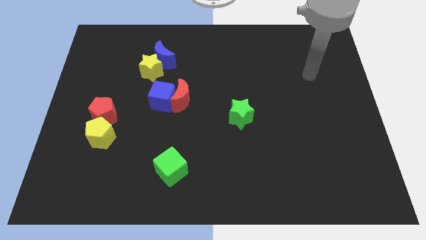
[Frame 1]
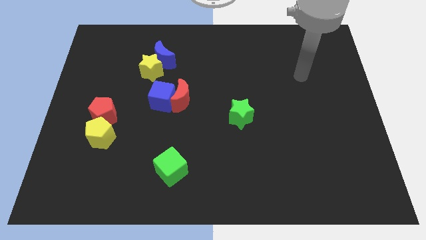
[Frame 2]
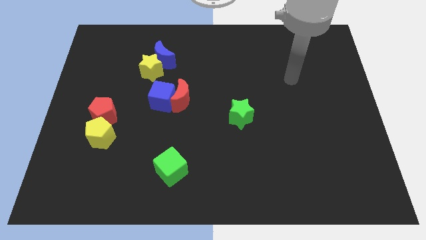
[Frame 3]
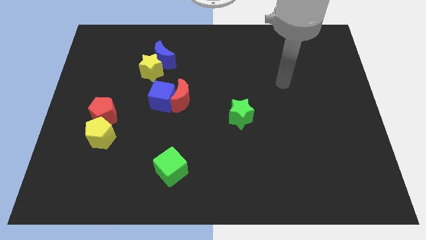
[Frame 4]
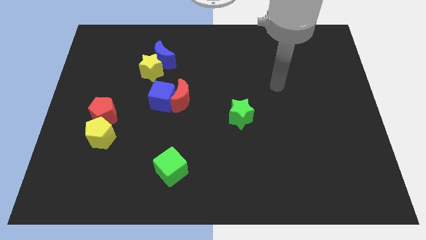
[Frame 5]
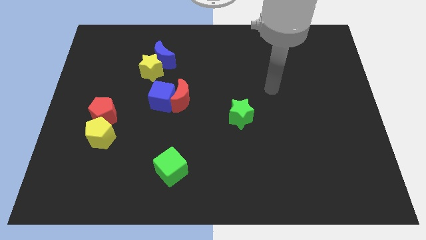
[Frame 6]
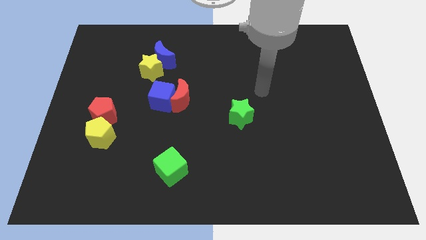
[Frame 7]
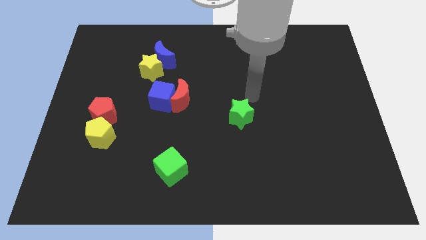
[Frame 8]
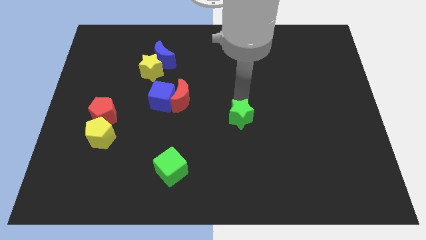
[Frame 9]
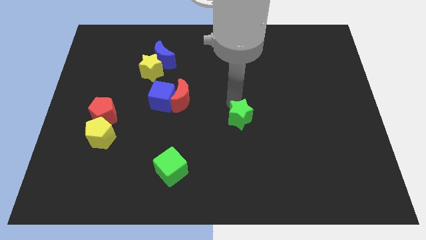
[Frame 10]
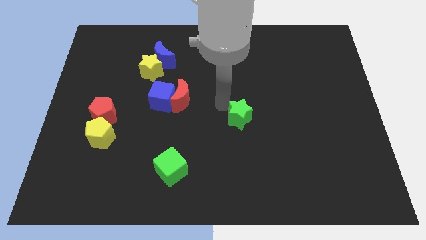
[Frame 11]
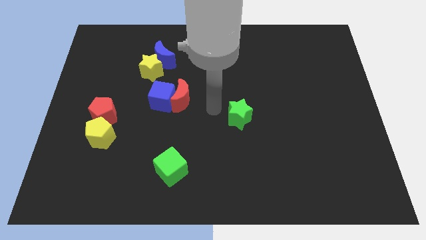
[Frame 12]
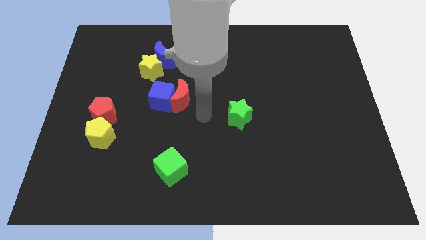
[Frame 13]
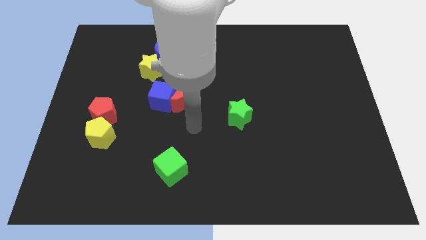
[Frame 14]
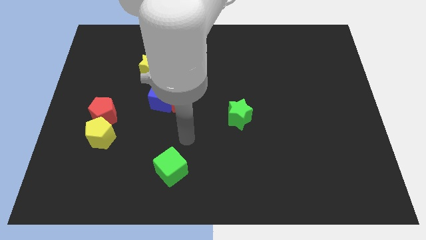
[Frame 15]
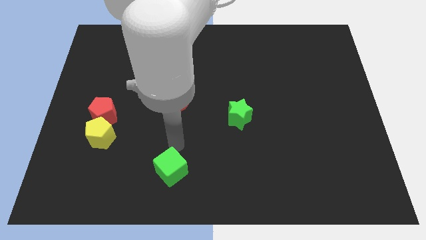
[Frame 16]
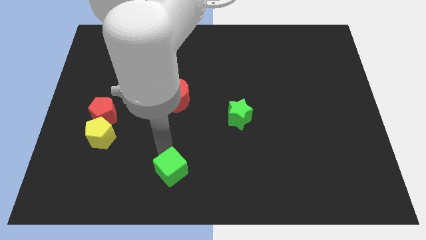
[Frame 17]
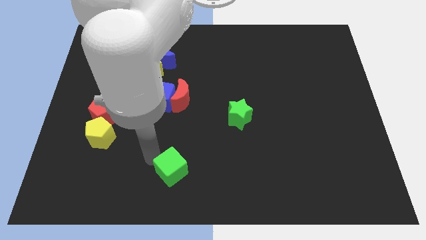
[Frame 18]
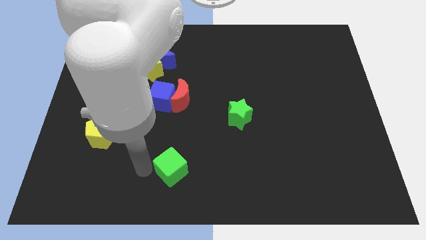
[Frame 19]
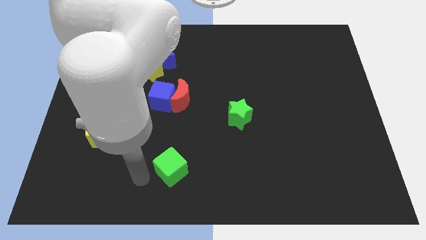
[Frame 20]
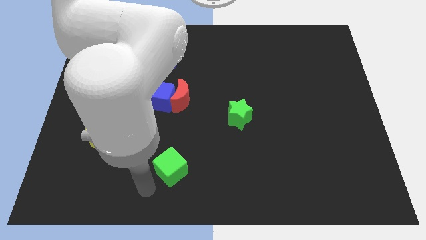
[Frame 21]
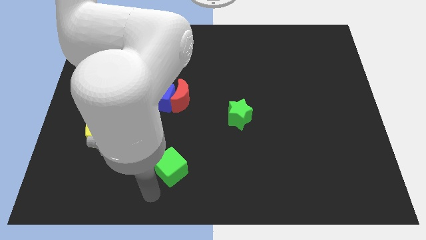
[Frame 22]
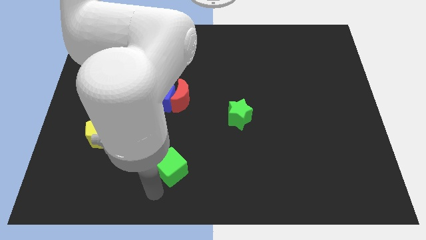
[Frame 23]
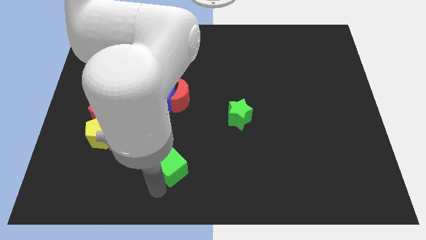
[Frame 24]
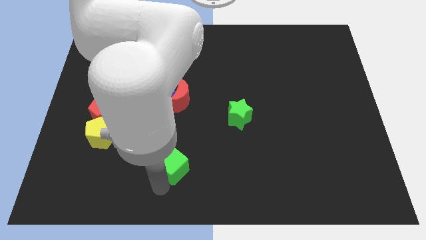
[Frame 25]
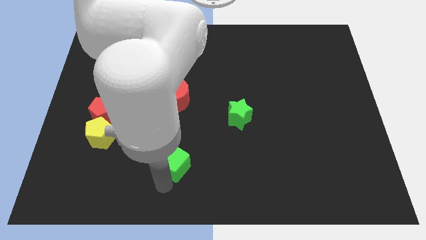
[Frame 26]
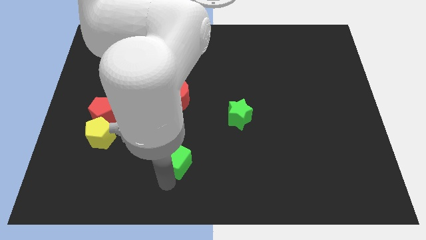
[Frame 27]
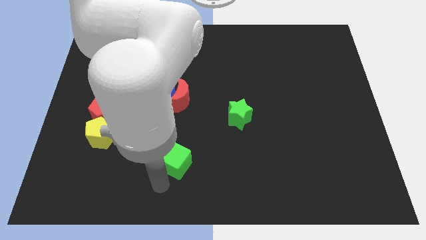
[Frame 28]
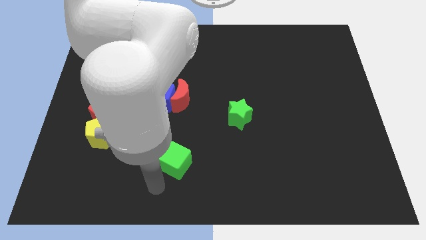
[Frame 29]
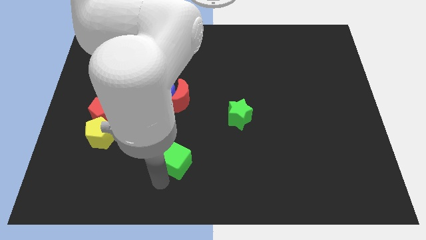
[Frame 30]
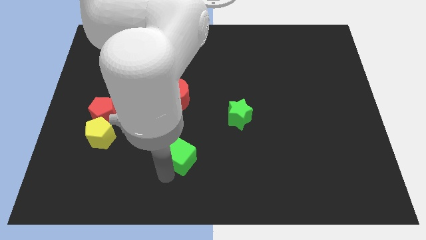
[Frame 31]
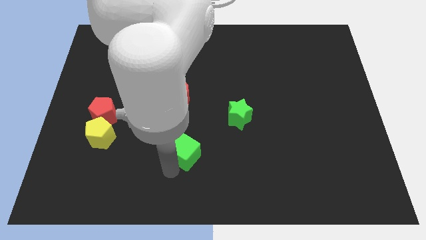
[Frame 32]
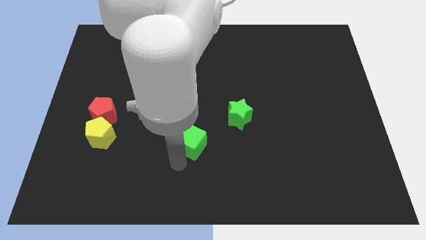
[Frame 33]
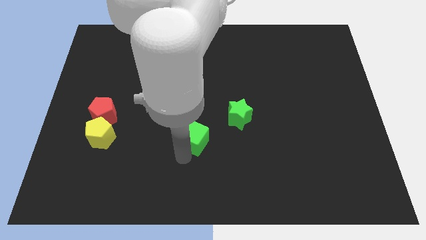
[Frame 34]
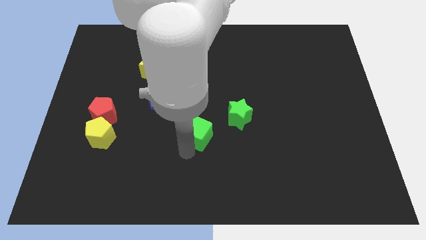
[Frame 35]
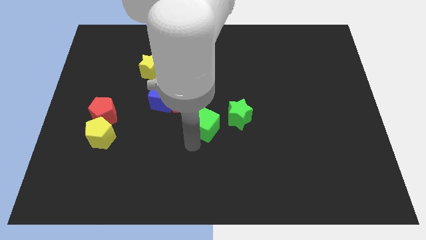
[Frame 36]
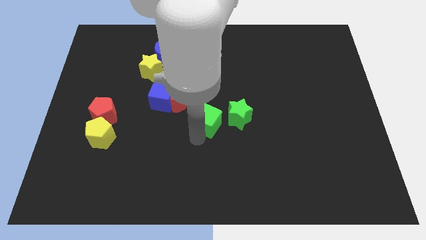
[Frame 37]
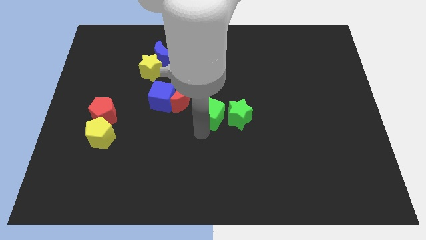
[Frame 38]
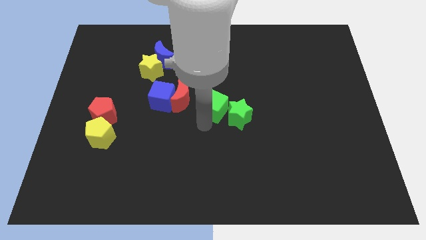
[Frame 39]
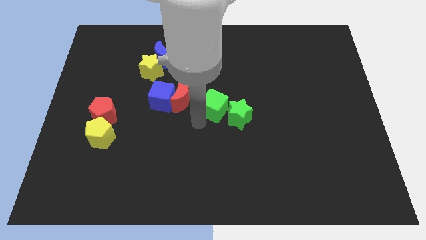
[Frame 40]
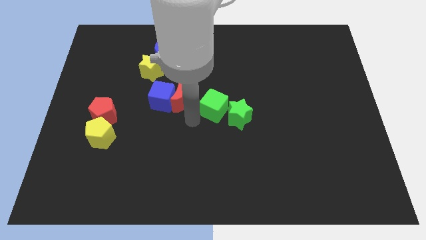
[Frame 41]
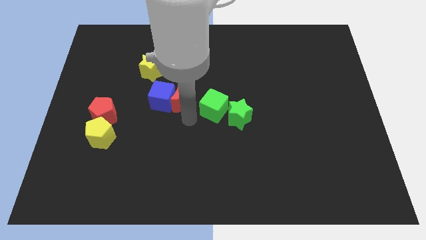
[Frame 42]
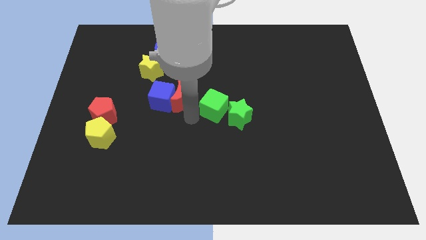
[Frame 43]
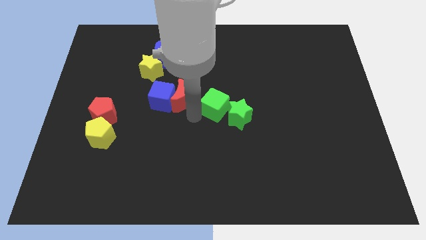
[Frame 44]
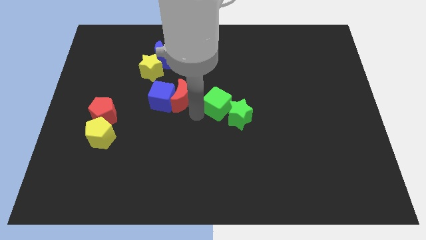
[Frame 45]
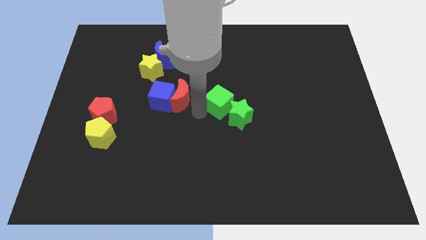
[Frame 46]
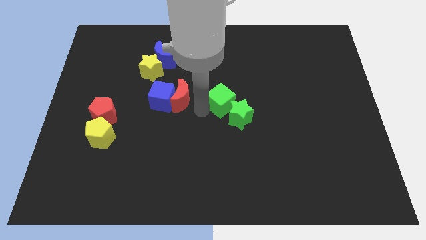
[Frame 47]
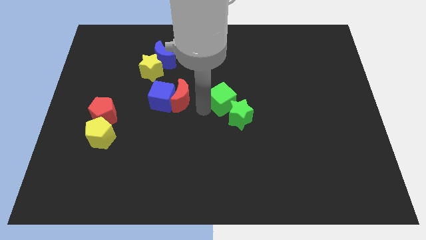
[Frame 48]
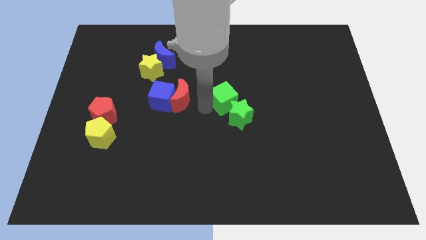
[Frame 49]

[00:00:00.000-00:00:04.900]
move the green cube up and right

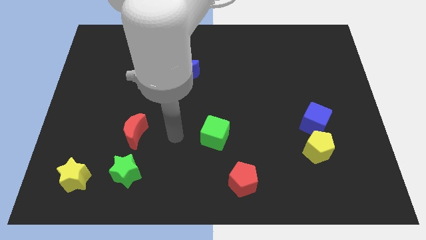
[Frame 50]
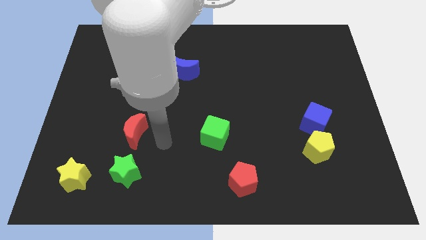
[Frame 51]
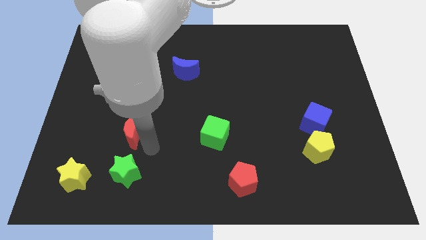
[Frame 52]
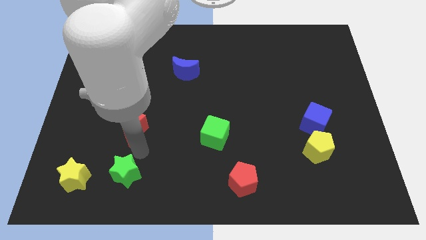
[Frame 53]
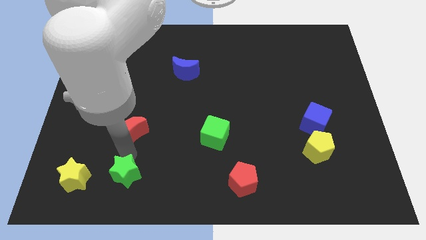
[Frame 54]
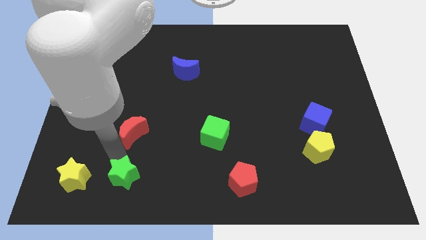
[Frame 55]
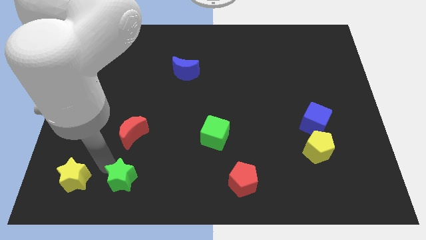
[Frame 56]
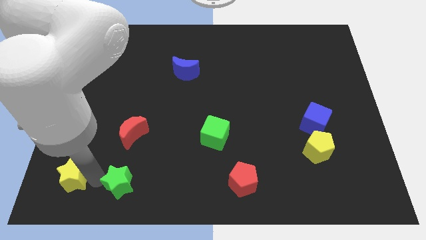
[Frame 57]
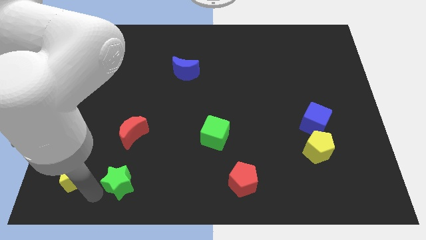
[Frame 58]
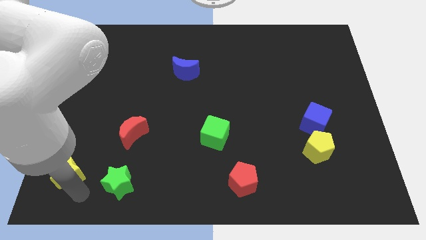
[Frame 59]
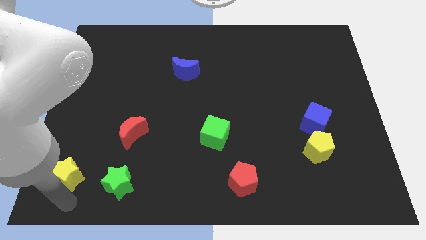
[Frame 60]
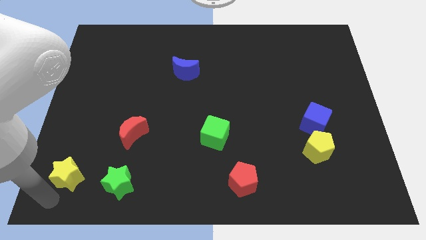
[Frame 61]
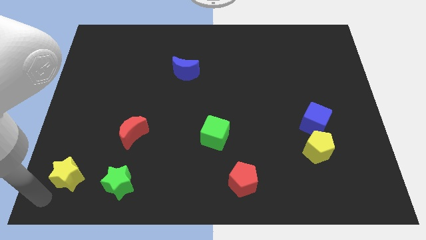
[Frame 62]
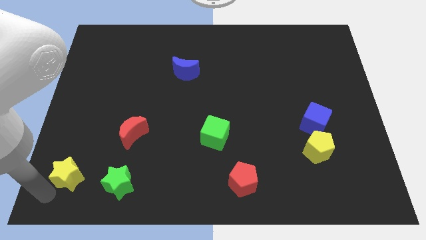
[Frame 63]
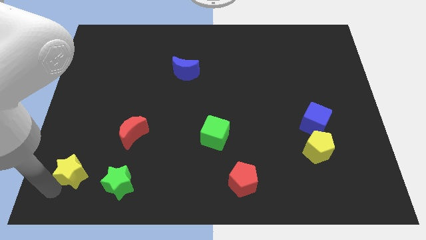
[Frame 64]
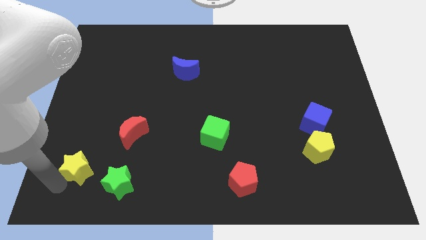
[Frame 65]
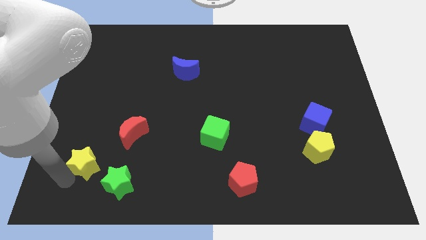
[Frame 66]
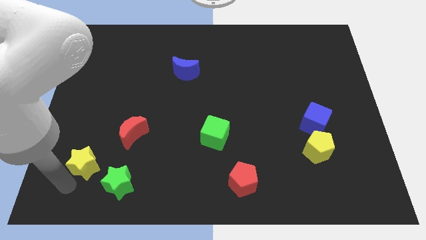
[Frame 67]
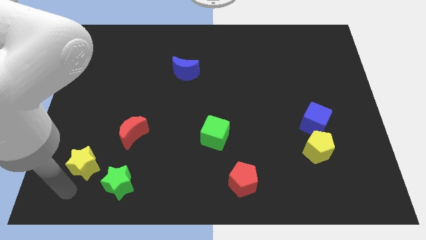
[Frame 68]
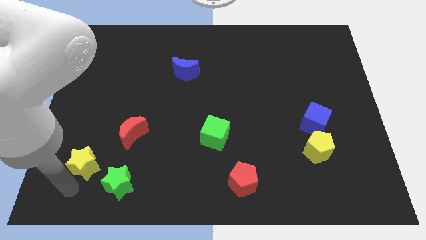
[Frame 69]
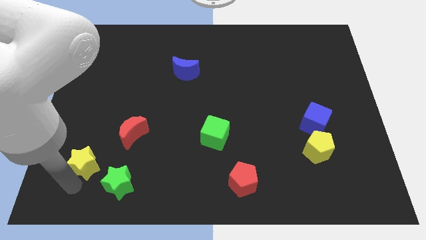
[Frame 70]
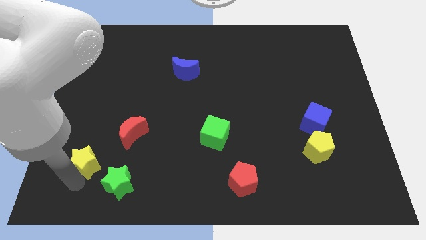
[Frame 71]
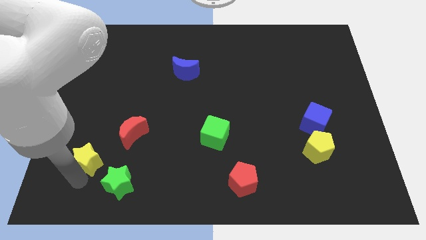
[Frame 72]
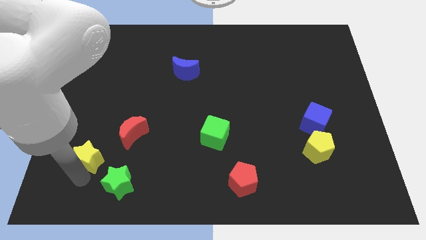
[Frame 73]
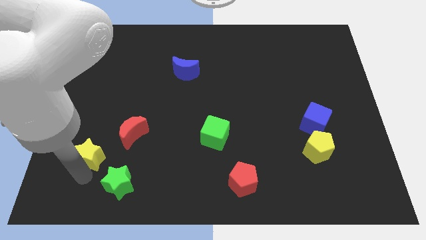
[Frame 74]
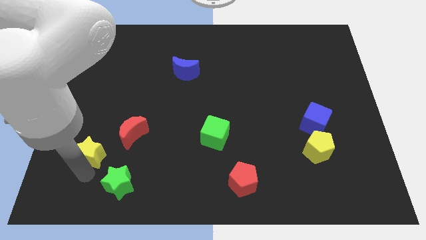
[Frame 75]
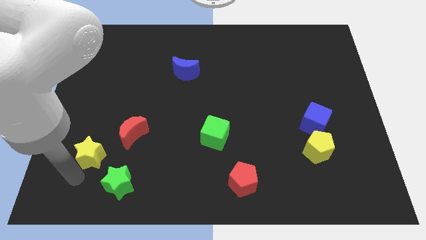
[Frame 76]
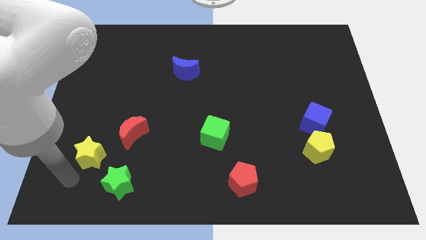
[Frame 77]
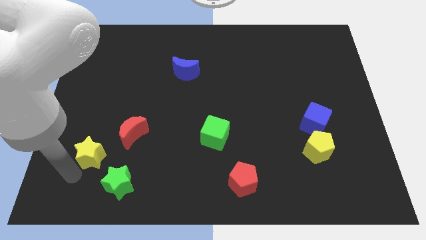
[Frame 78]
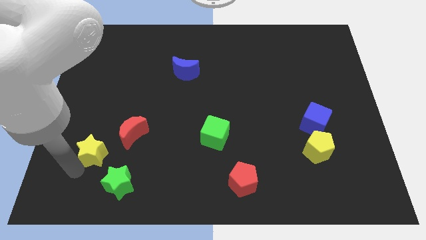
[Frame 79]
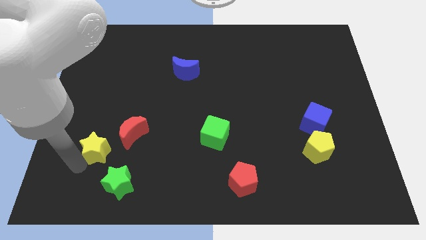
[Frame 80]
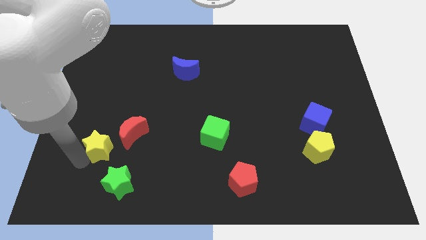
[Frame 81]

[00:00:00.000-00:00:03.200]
move the yellow star a bit upwards and right diagonally
